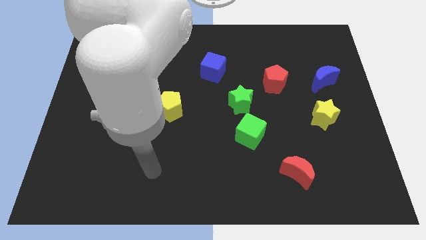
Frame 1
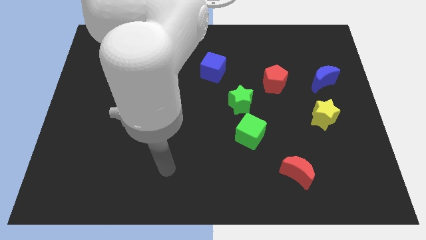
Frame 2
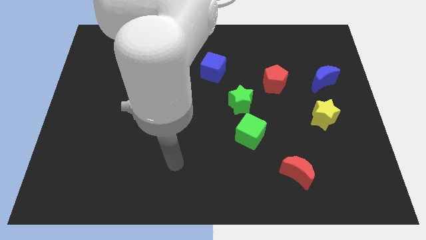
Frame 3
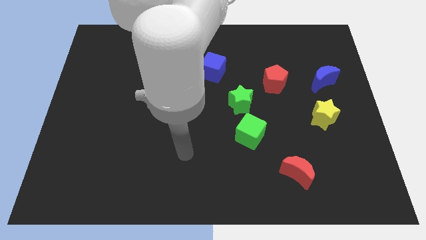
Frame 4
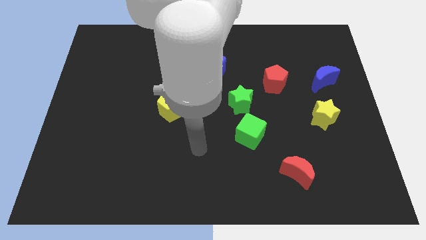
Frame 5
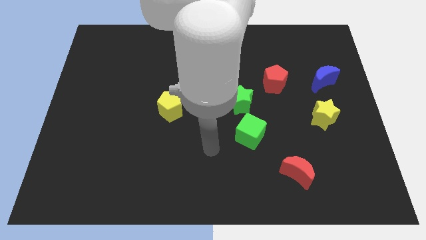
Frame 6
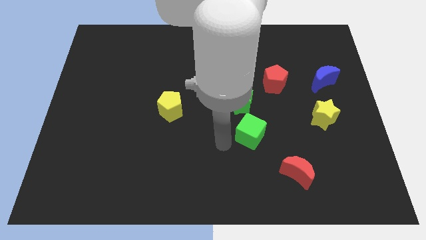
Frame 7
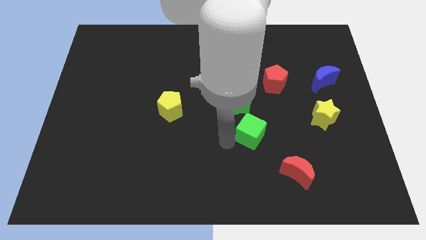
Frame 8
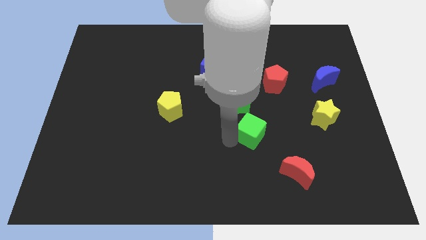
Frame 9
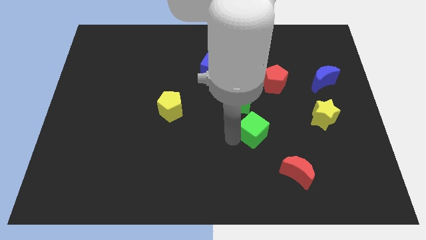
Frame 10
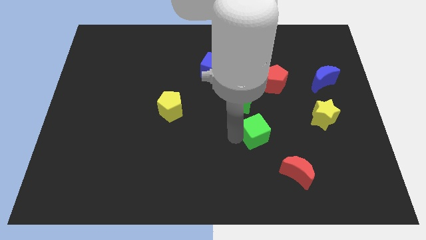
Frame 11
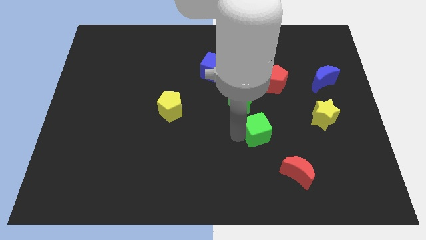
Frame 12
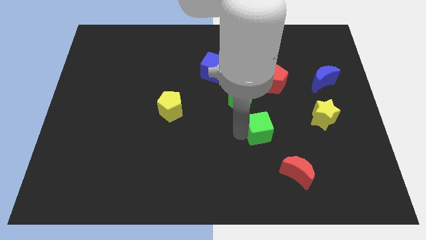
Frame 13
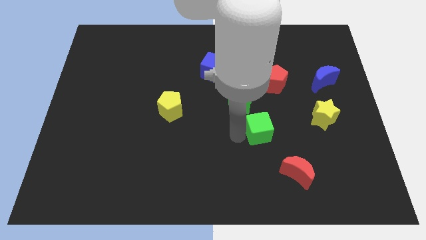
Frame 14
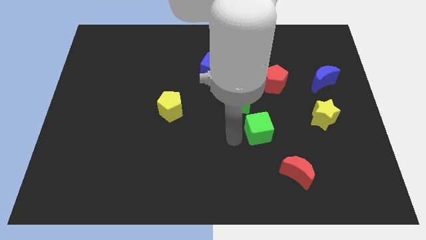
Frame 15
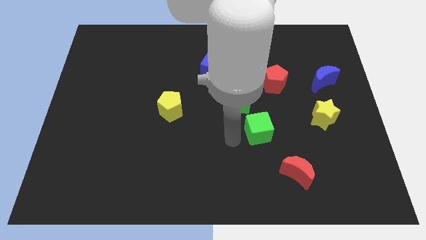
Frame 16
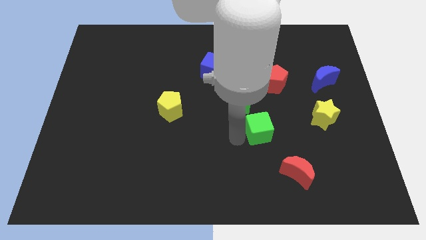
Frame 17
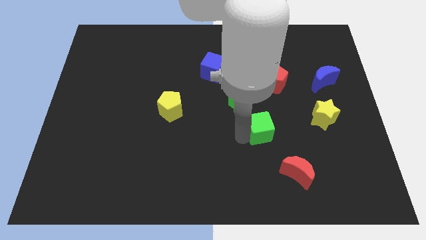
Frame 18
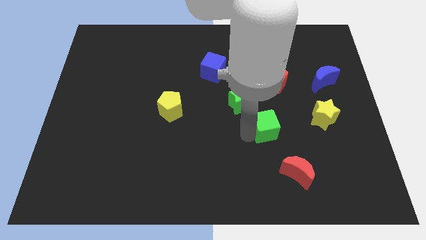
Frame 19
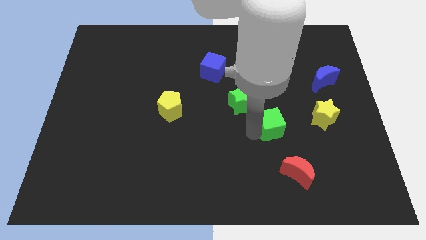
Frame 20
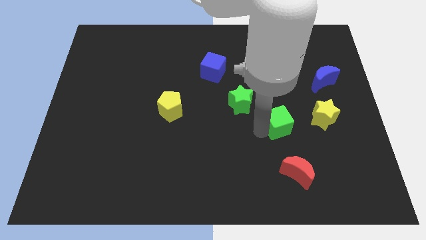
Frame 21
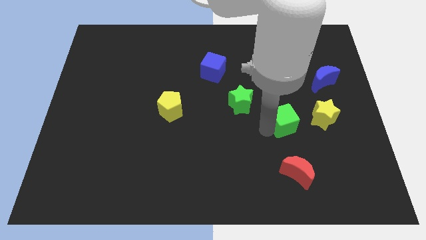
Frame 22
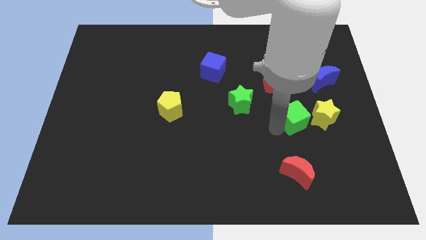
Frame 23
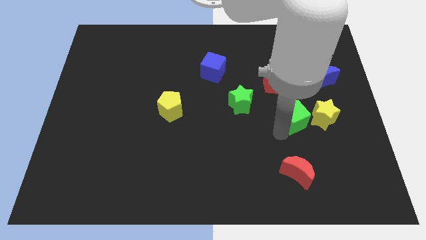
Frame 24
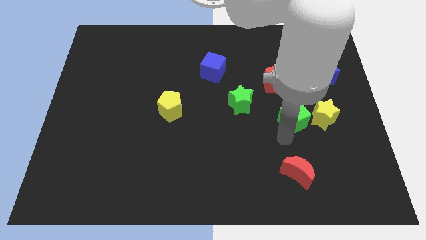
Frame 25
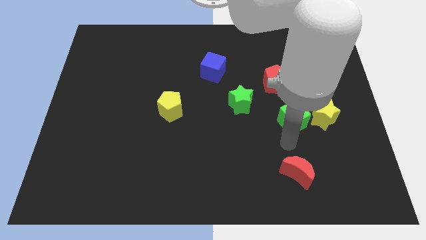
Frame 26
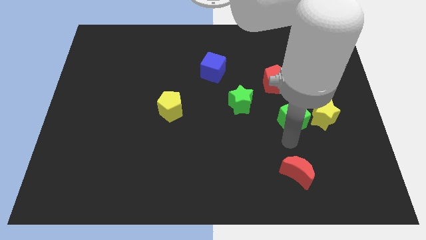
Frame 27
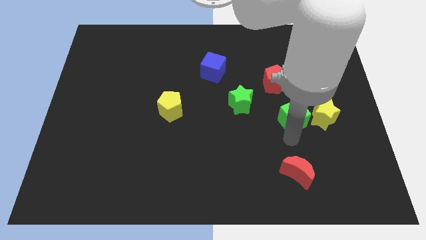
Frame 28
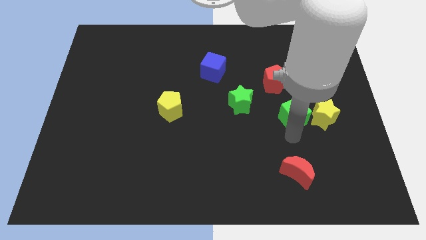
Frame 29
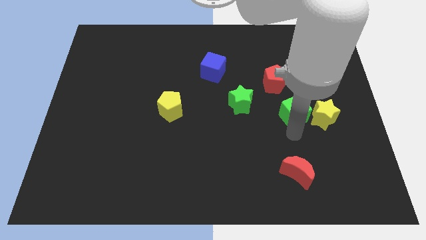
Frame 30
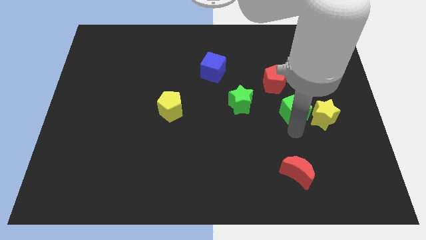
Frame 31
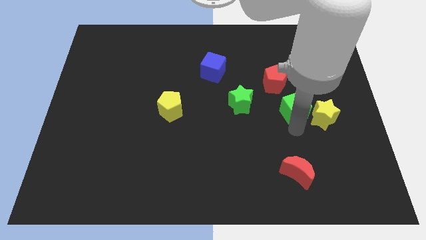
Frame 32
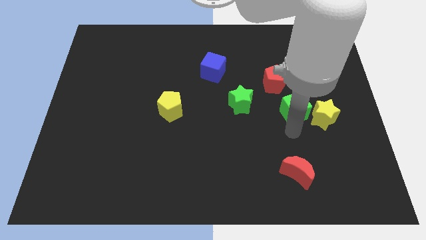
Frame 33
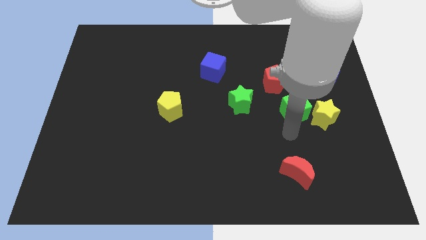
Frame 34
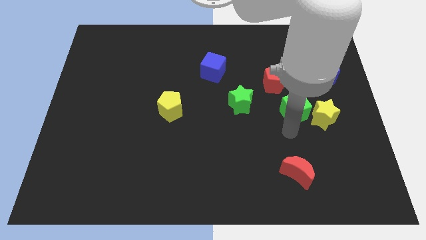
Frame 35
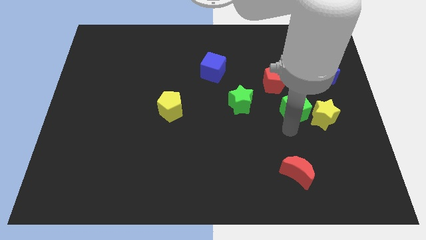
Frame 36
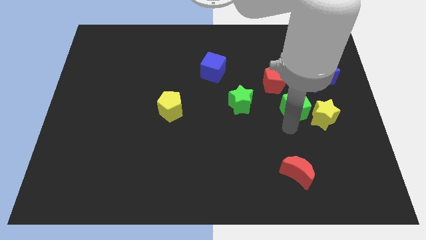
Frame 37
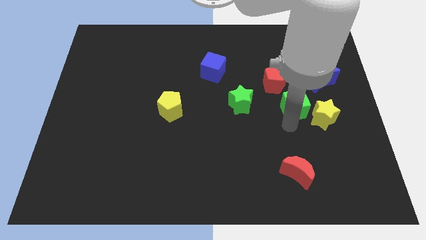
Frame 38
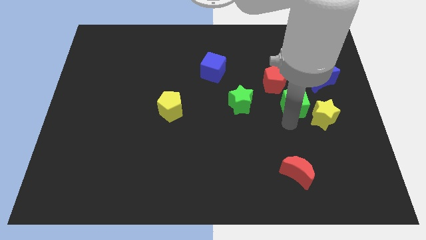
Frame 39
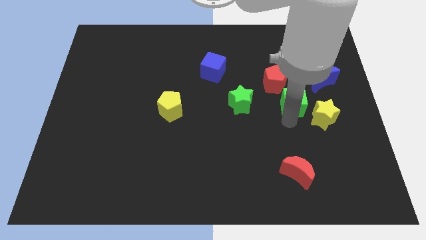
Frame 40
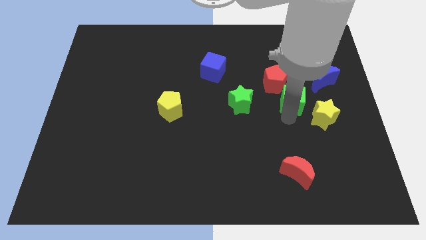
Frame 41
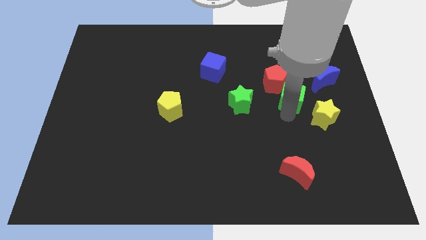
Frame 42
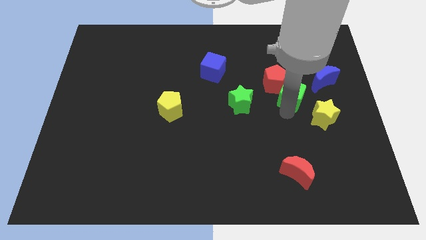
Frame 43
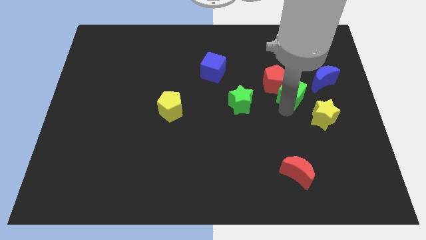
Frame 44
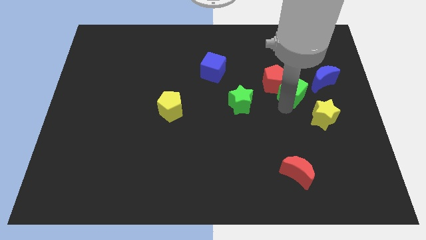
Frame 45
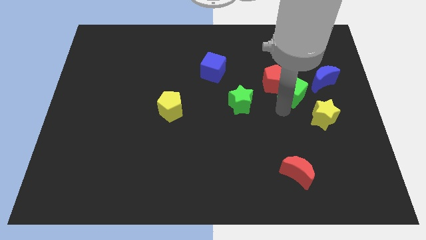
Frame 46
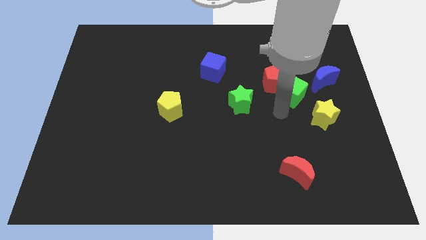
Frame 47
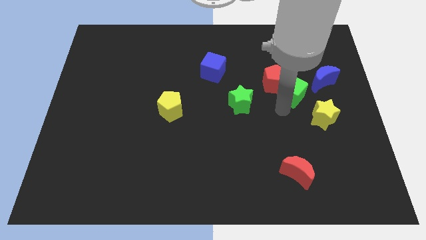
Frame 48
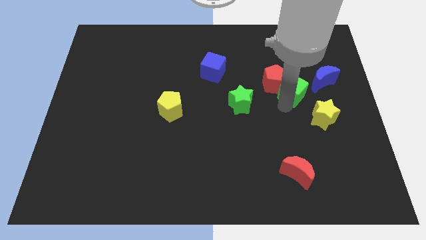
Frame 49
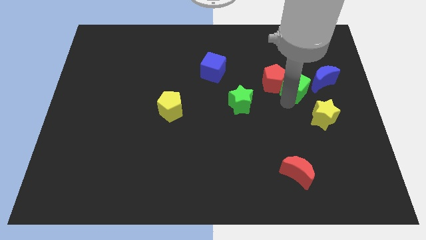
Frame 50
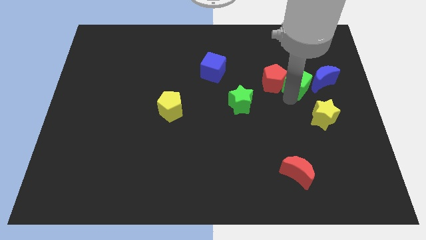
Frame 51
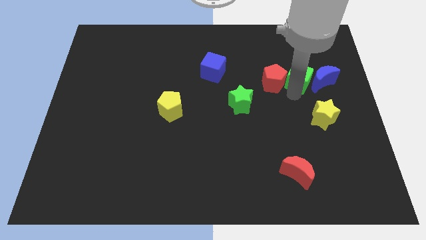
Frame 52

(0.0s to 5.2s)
push the green cube to the top left of the blue moon

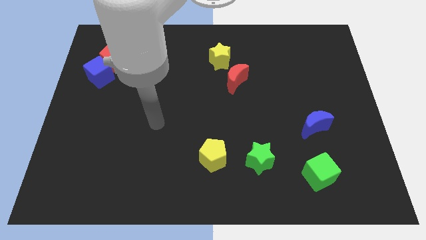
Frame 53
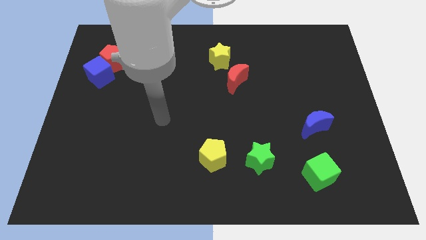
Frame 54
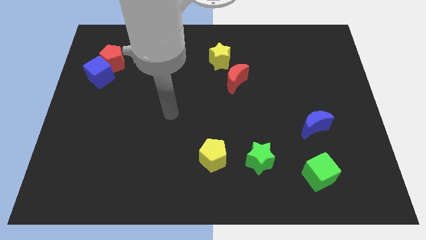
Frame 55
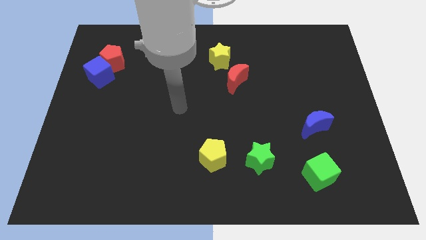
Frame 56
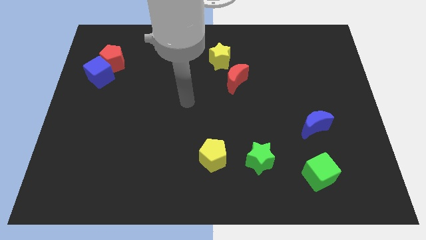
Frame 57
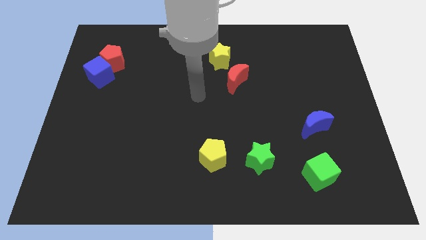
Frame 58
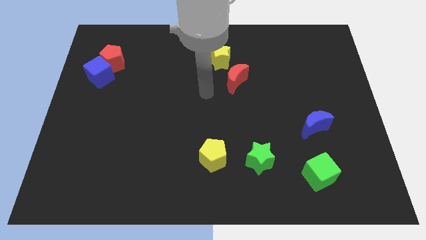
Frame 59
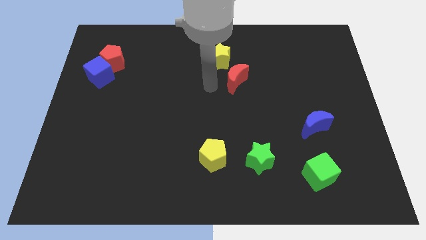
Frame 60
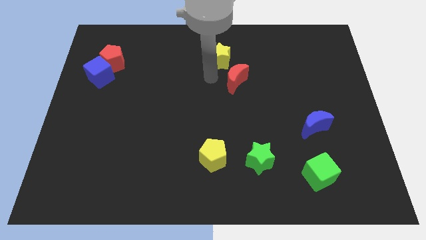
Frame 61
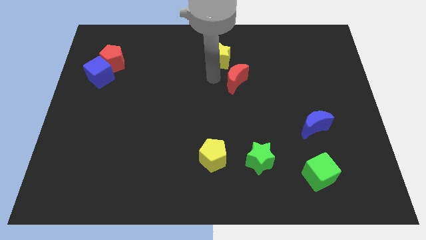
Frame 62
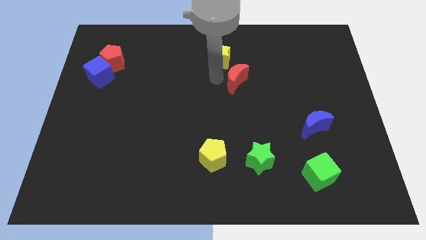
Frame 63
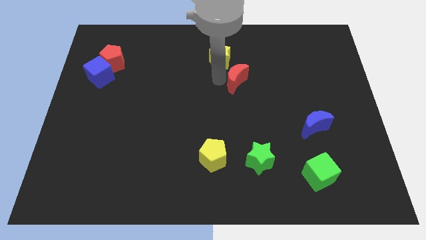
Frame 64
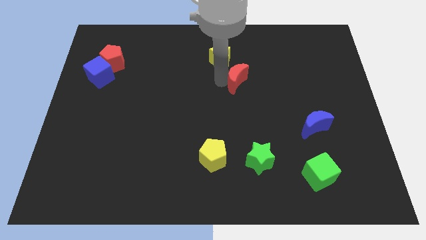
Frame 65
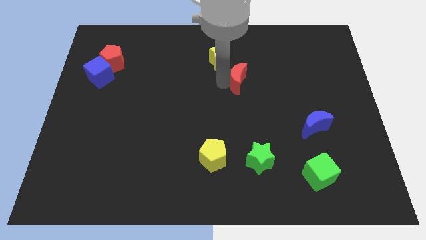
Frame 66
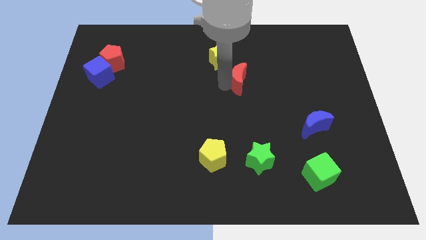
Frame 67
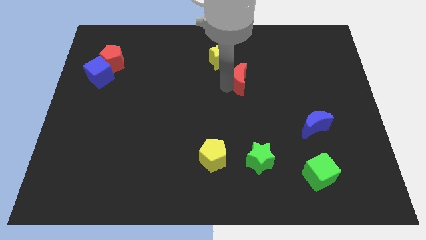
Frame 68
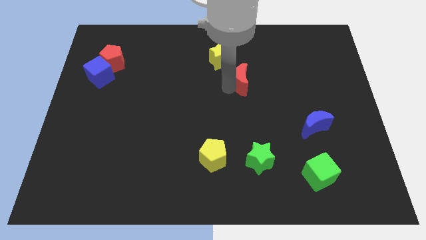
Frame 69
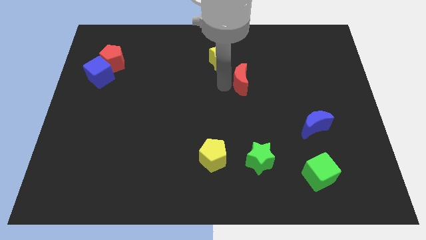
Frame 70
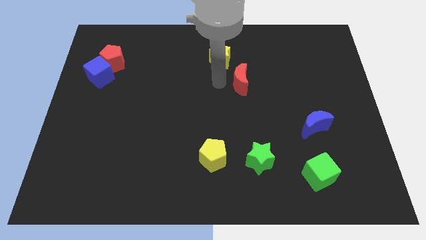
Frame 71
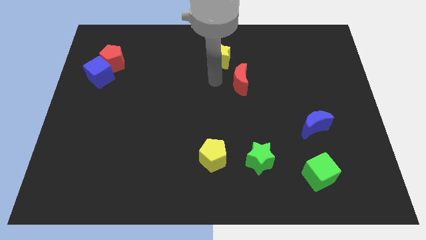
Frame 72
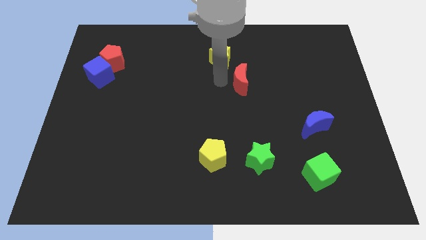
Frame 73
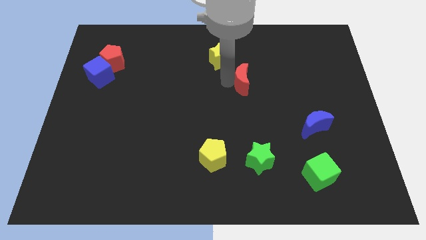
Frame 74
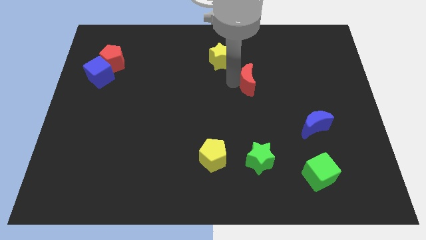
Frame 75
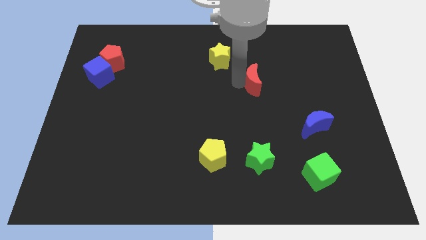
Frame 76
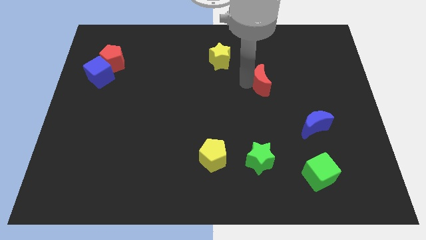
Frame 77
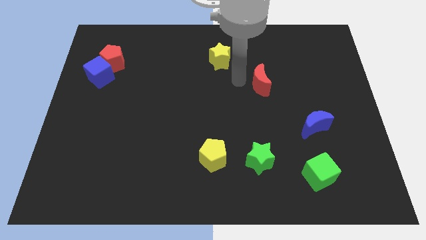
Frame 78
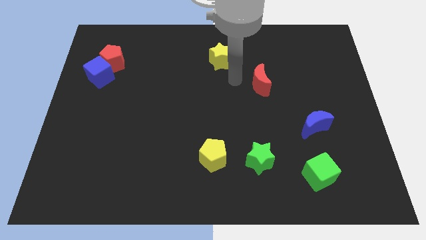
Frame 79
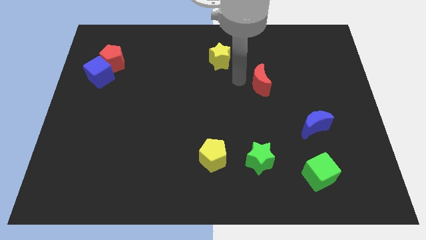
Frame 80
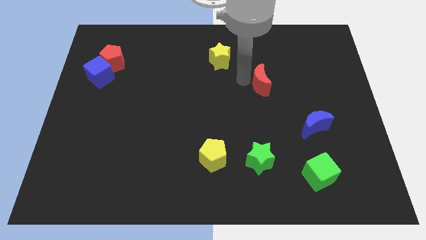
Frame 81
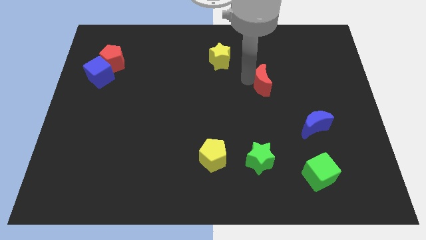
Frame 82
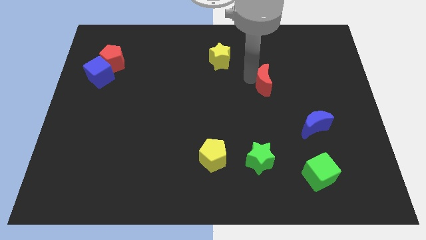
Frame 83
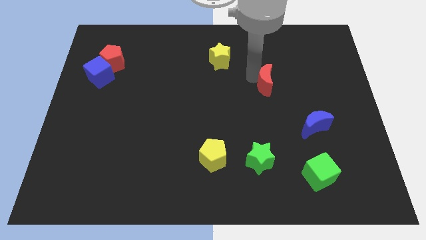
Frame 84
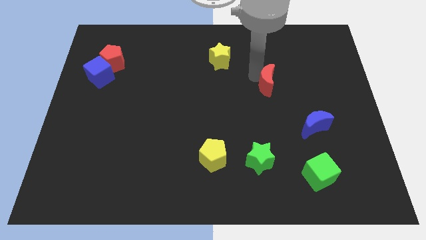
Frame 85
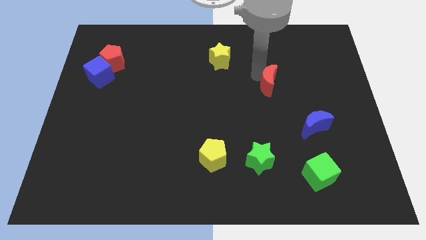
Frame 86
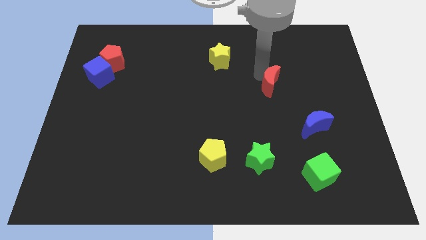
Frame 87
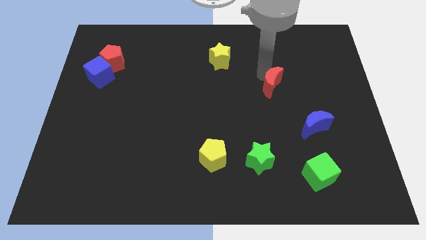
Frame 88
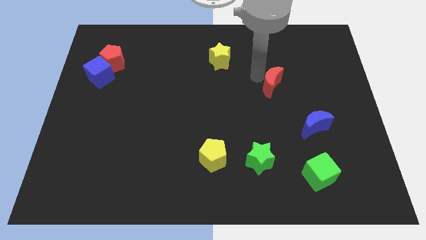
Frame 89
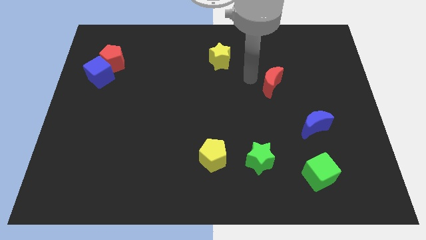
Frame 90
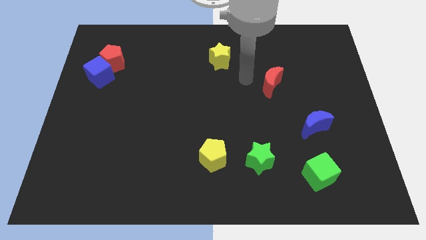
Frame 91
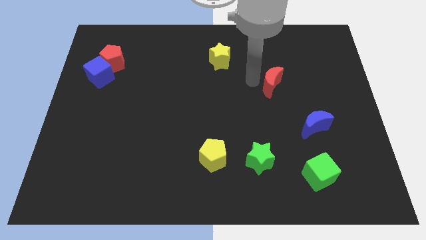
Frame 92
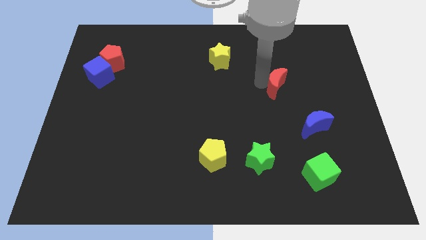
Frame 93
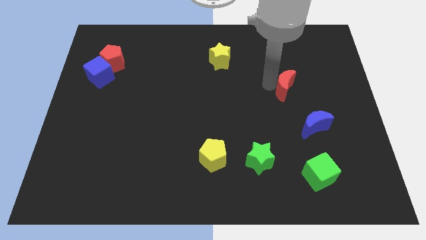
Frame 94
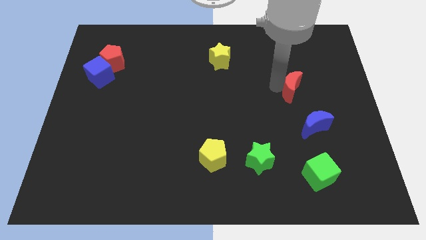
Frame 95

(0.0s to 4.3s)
slide the red moon to the top of the blue moon
